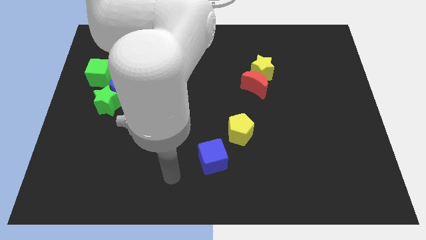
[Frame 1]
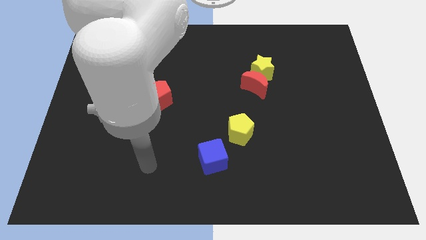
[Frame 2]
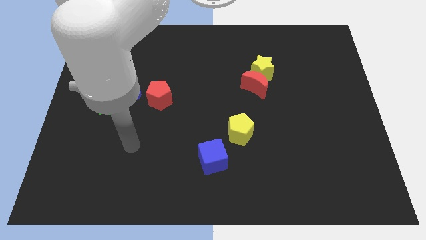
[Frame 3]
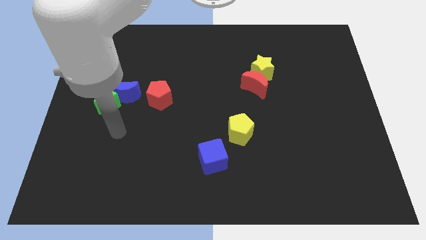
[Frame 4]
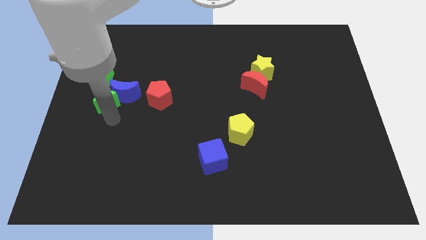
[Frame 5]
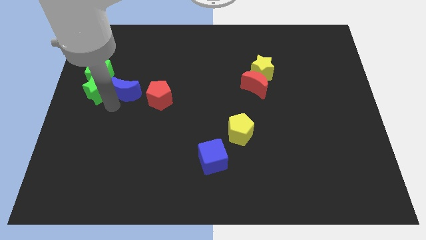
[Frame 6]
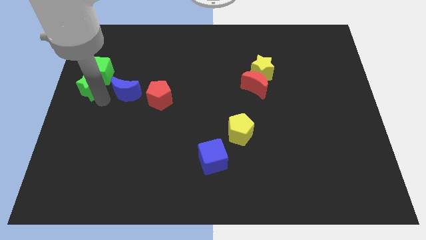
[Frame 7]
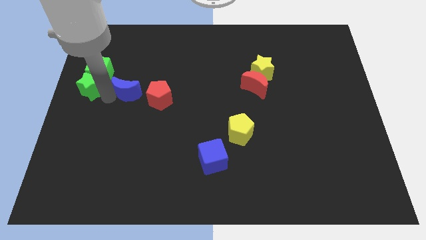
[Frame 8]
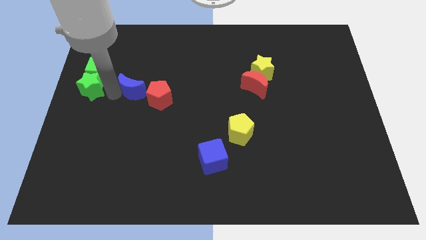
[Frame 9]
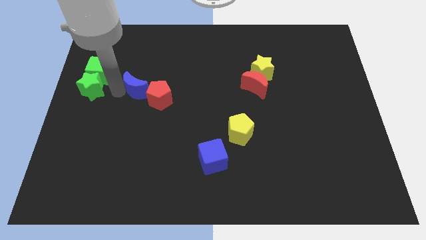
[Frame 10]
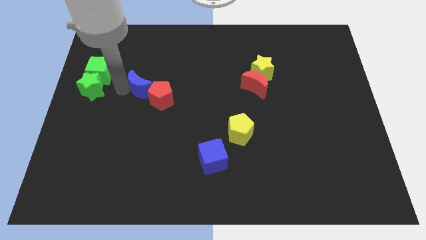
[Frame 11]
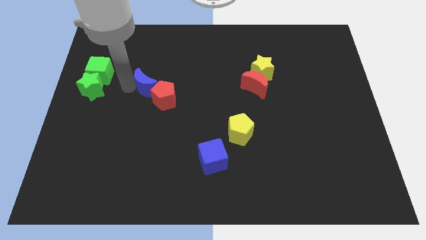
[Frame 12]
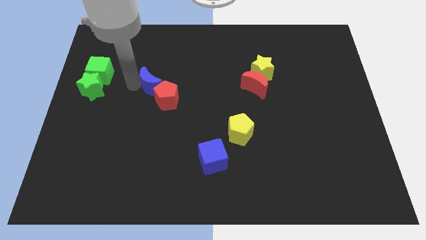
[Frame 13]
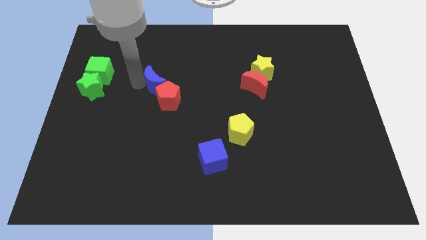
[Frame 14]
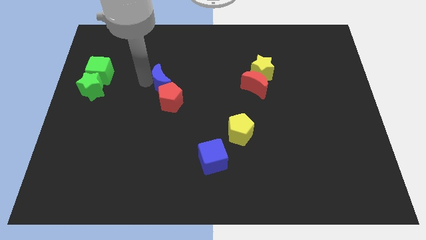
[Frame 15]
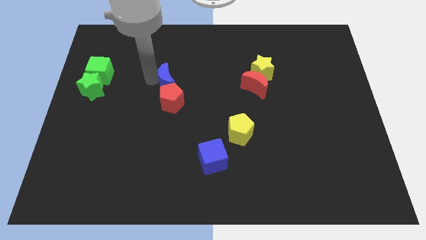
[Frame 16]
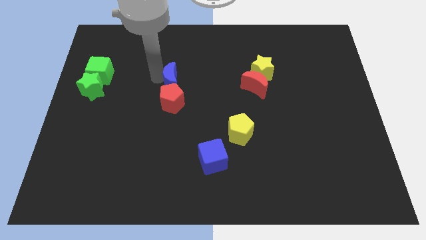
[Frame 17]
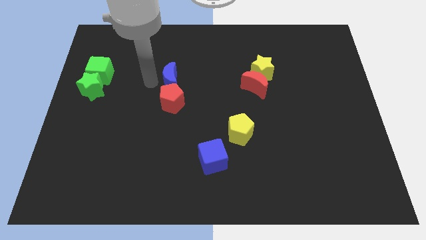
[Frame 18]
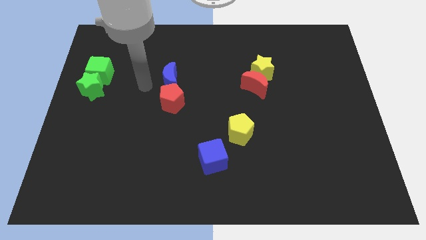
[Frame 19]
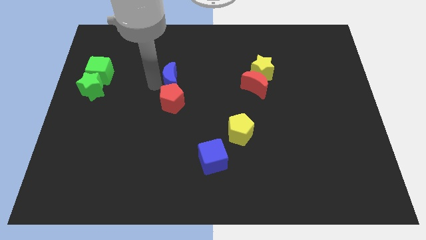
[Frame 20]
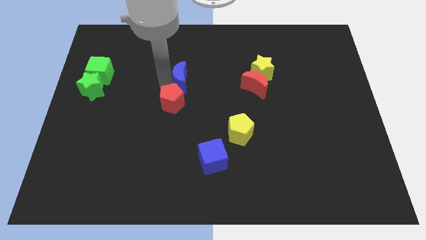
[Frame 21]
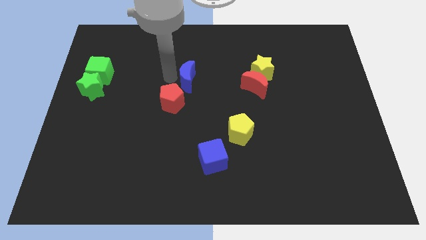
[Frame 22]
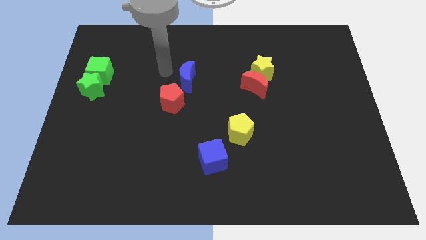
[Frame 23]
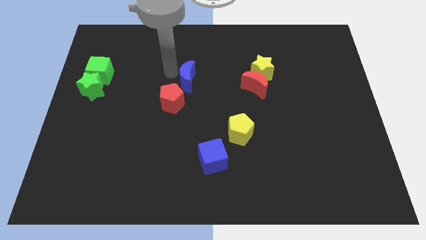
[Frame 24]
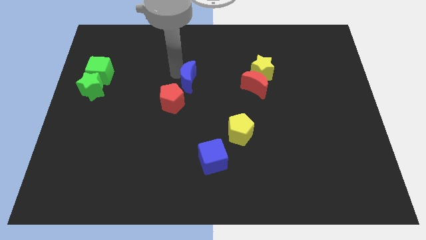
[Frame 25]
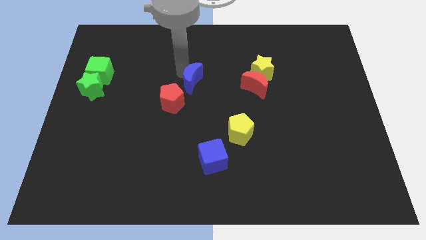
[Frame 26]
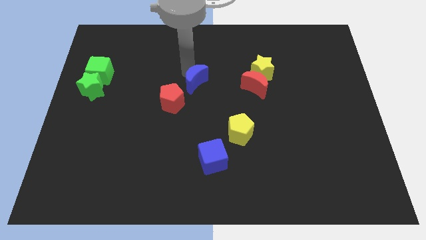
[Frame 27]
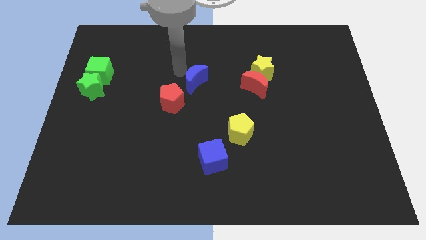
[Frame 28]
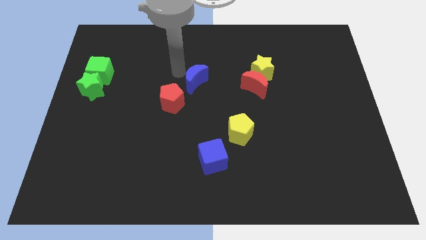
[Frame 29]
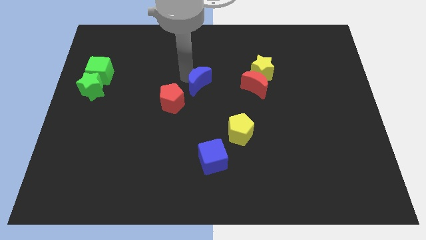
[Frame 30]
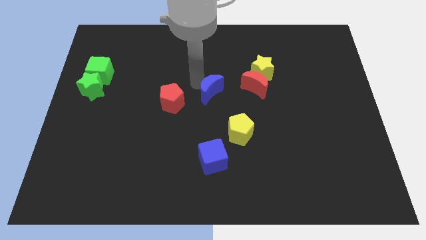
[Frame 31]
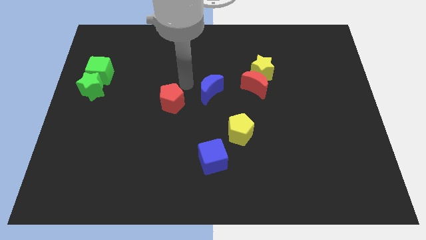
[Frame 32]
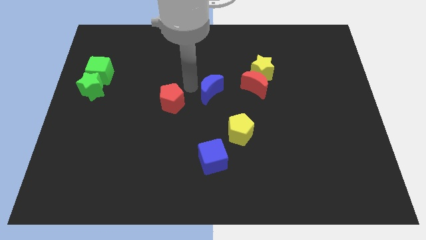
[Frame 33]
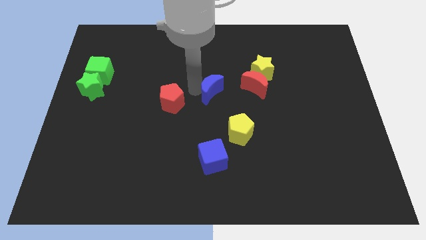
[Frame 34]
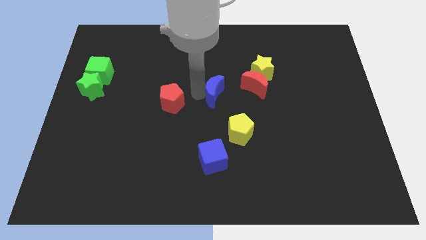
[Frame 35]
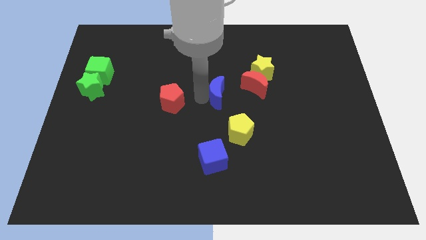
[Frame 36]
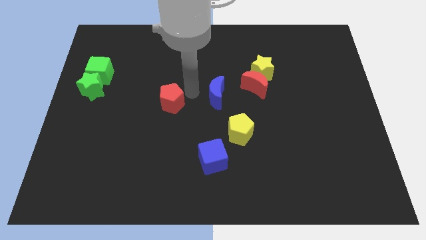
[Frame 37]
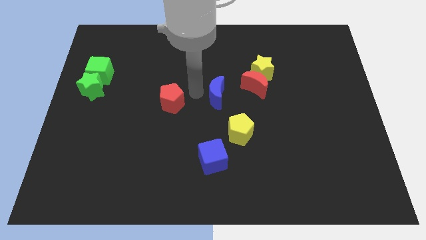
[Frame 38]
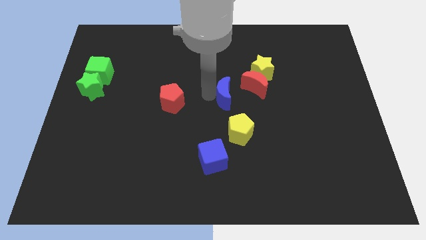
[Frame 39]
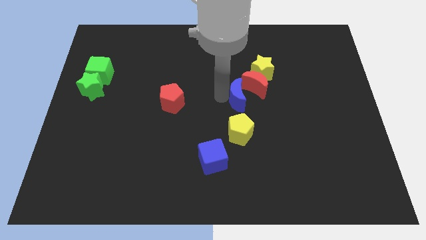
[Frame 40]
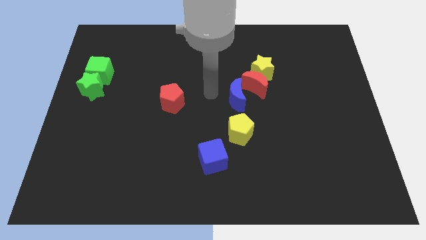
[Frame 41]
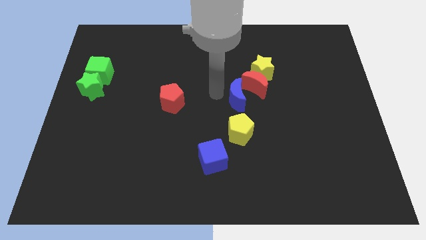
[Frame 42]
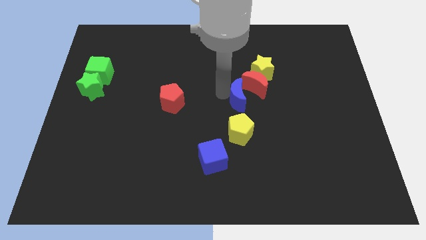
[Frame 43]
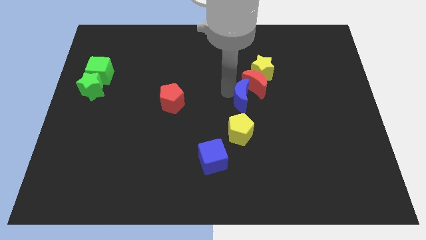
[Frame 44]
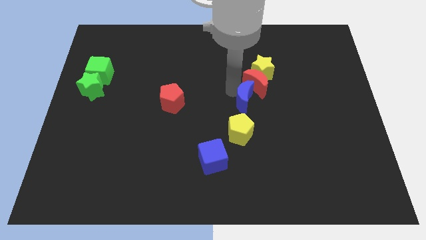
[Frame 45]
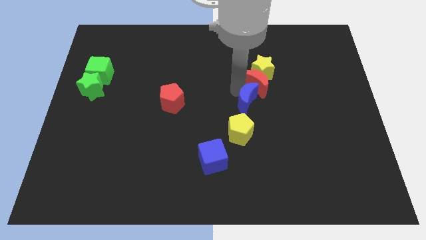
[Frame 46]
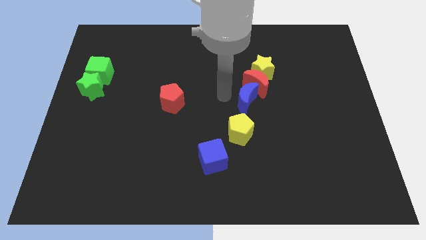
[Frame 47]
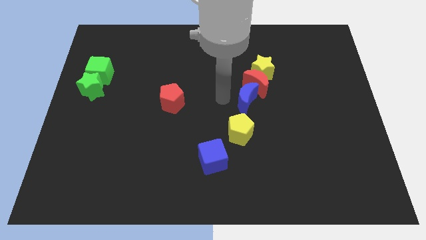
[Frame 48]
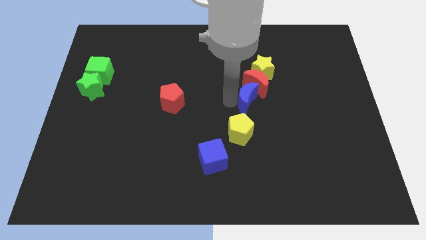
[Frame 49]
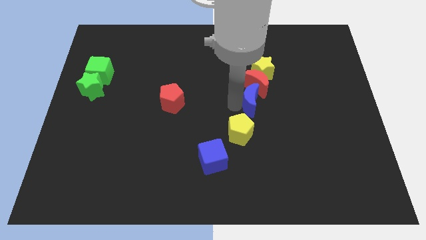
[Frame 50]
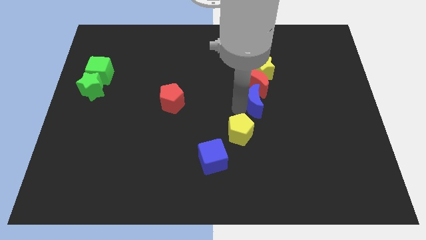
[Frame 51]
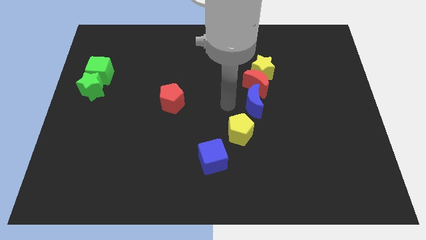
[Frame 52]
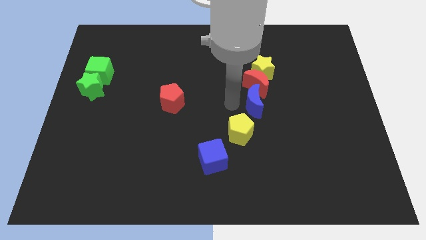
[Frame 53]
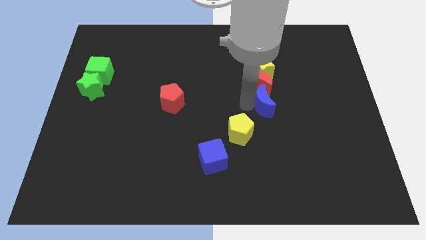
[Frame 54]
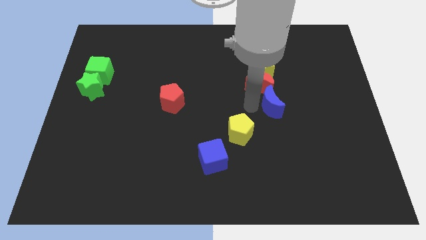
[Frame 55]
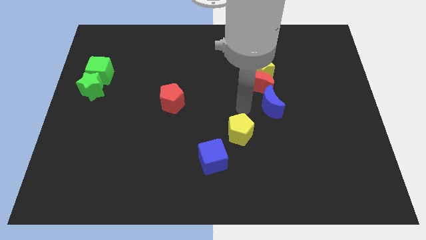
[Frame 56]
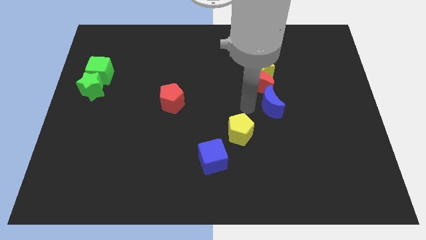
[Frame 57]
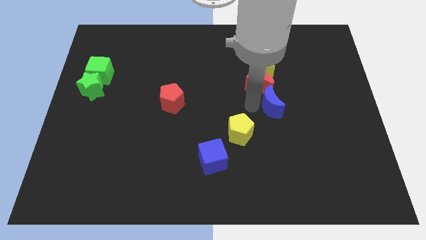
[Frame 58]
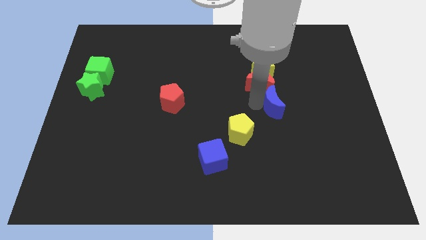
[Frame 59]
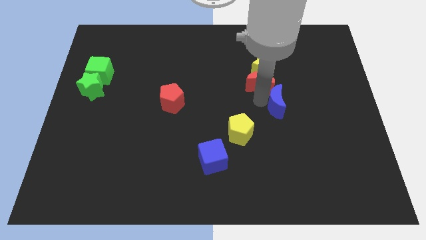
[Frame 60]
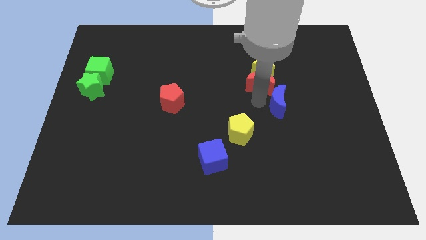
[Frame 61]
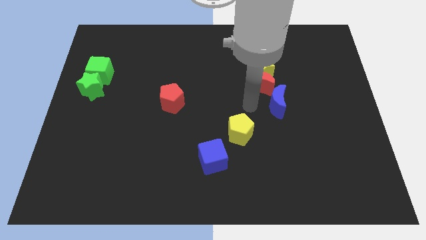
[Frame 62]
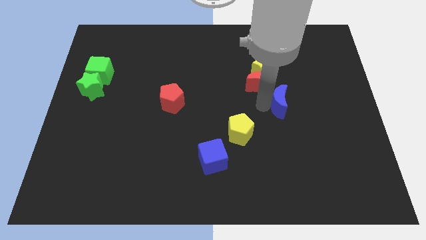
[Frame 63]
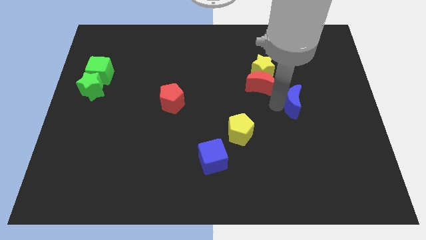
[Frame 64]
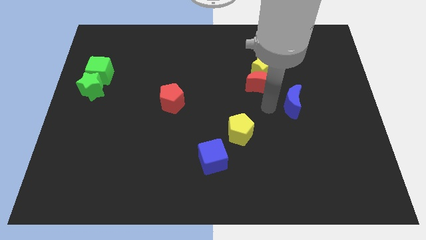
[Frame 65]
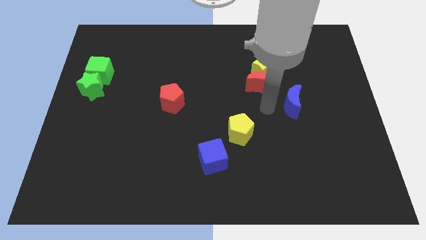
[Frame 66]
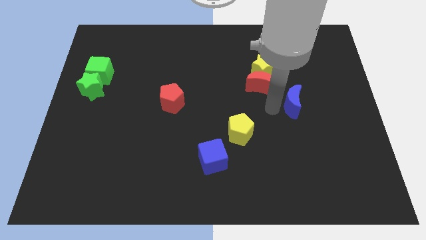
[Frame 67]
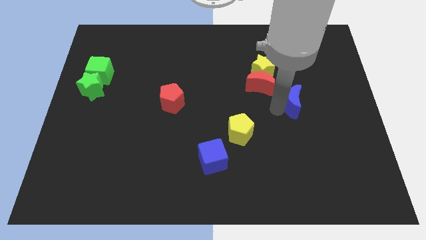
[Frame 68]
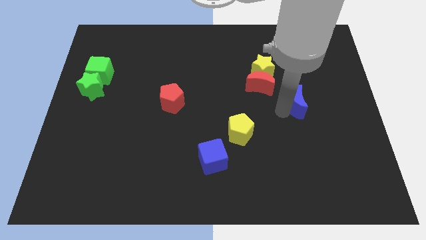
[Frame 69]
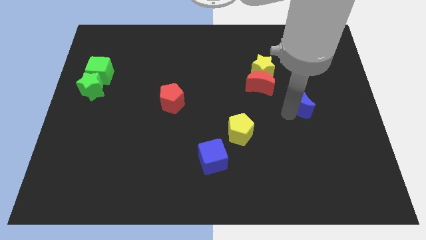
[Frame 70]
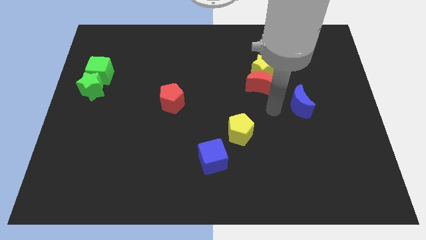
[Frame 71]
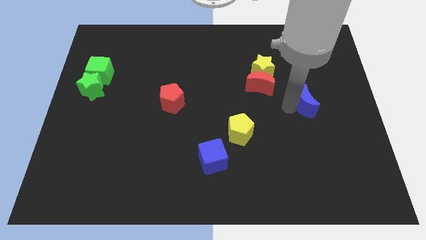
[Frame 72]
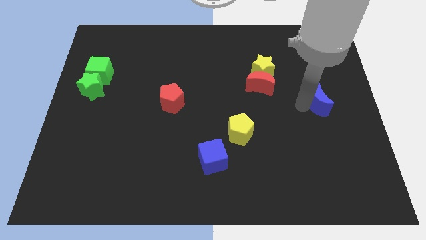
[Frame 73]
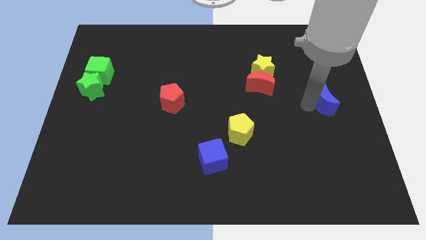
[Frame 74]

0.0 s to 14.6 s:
move the blue moon to the right side
